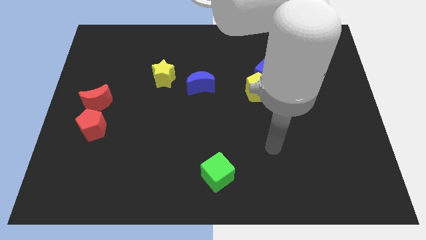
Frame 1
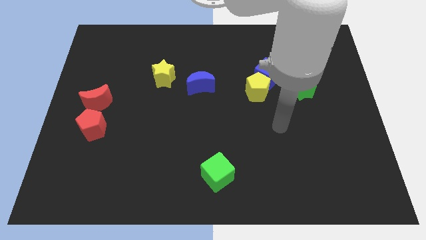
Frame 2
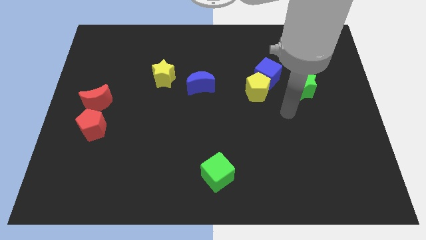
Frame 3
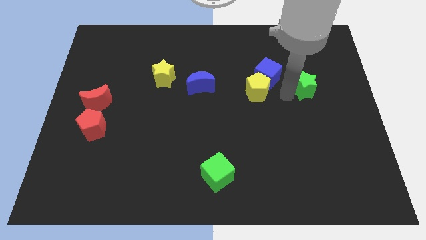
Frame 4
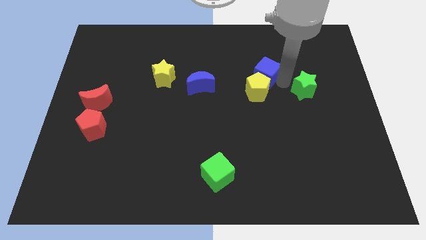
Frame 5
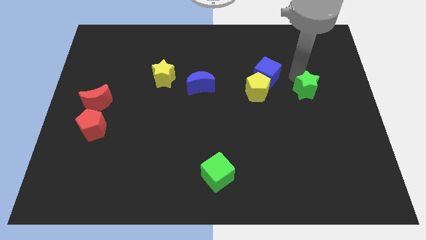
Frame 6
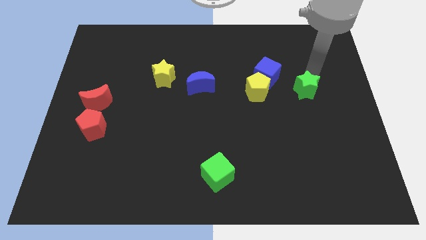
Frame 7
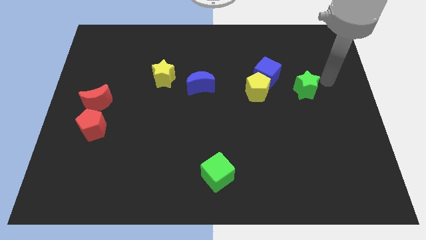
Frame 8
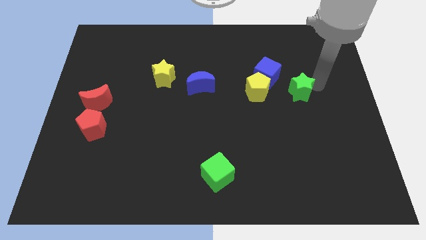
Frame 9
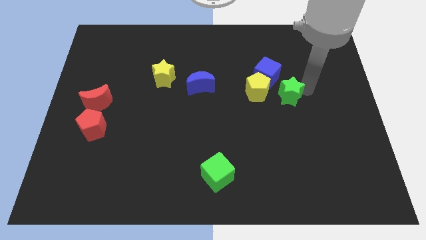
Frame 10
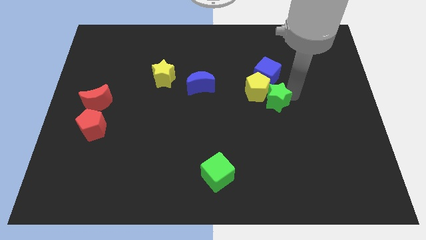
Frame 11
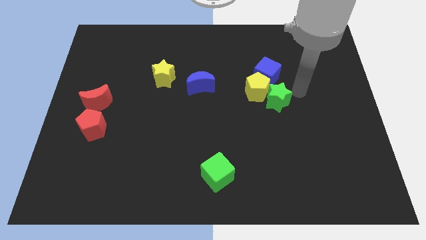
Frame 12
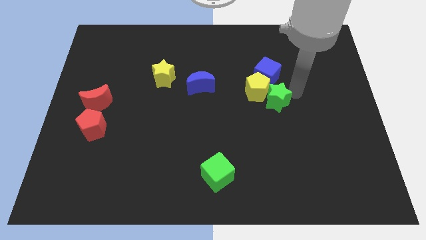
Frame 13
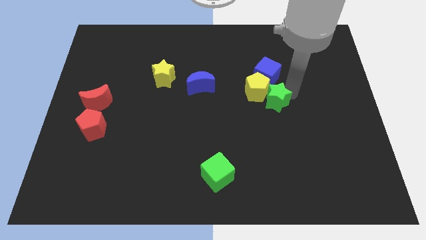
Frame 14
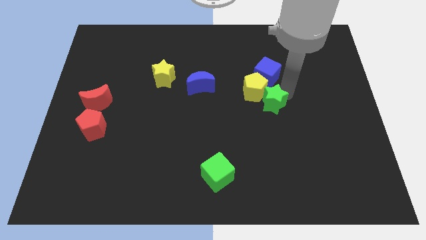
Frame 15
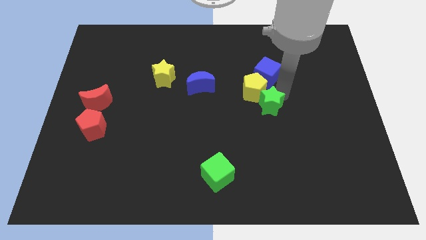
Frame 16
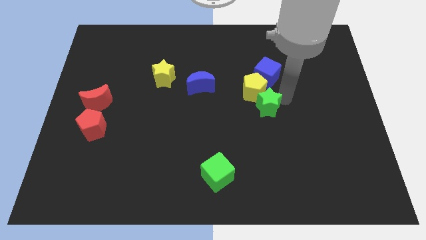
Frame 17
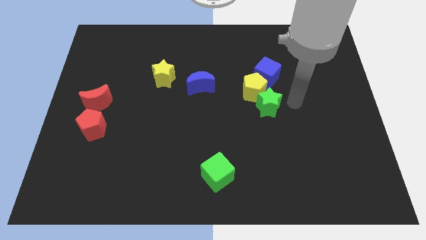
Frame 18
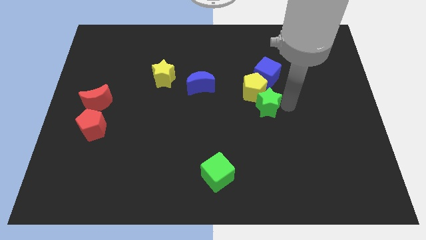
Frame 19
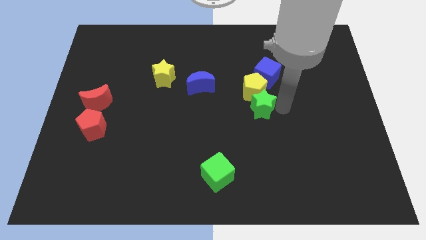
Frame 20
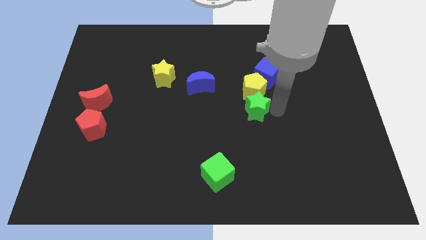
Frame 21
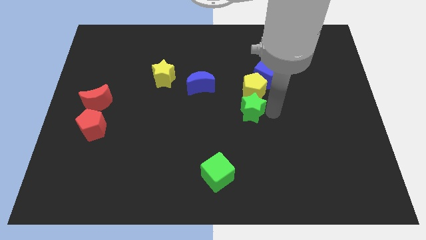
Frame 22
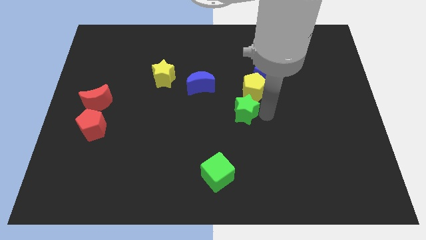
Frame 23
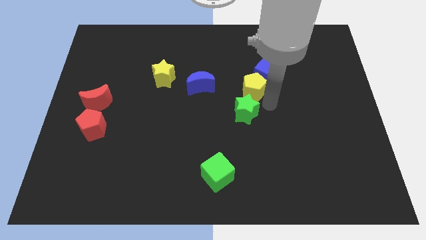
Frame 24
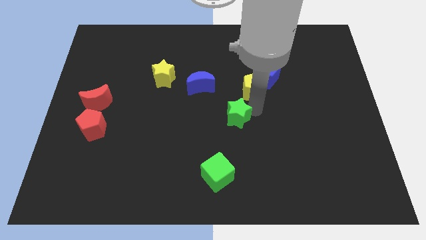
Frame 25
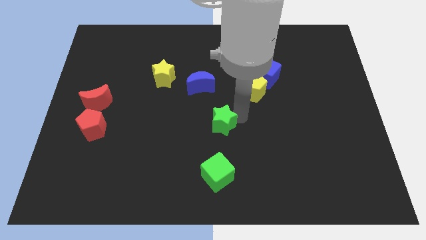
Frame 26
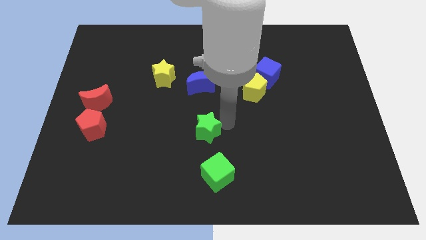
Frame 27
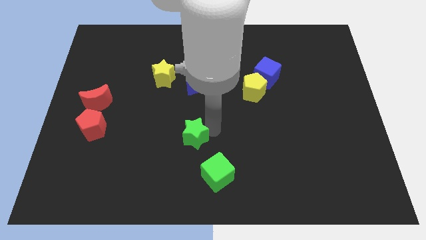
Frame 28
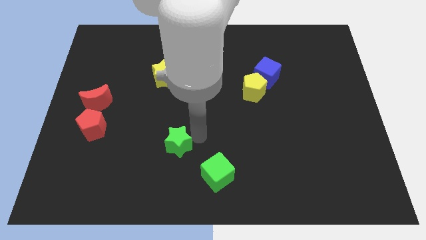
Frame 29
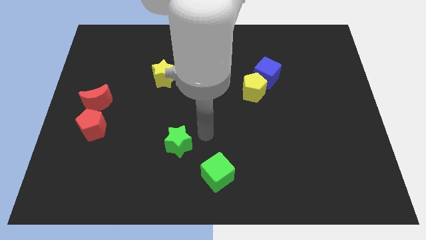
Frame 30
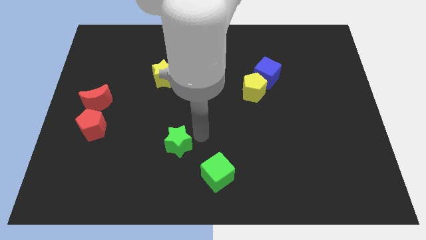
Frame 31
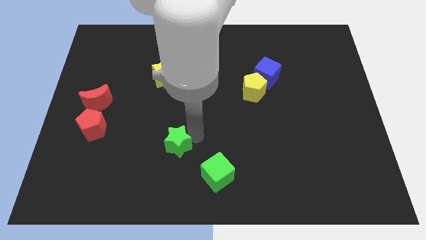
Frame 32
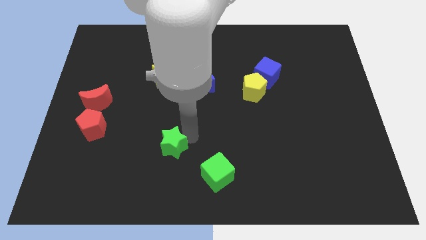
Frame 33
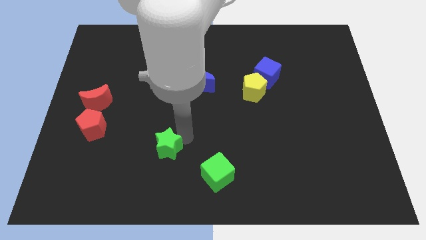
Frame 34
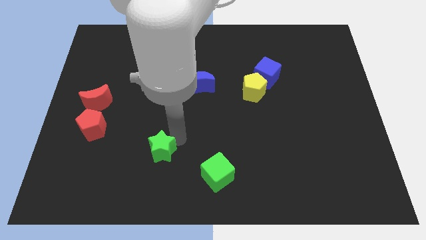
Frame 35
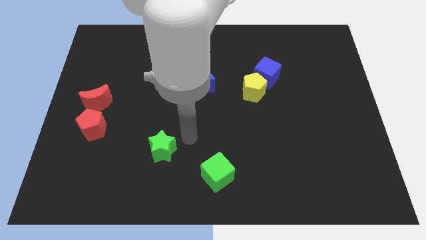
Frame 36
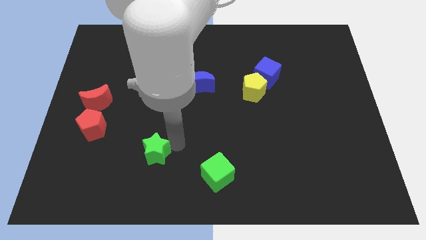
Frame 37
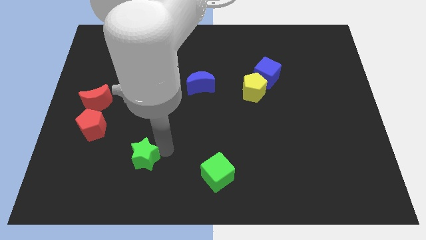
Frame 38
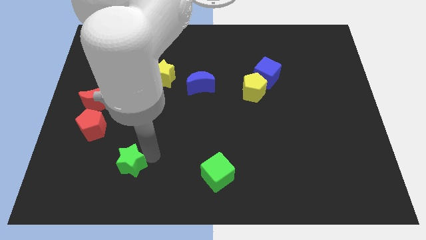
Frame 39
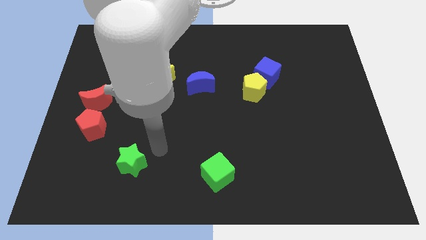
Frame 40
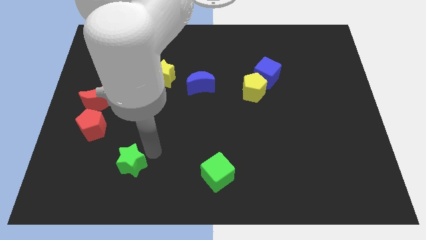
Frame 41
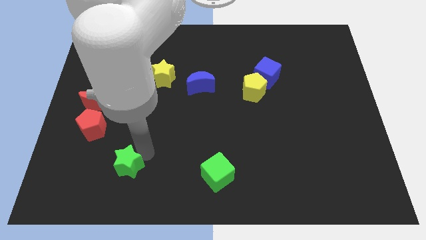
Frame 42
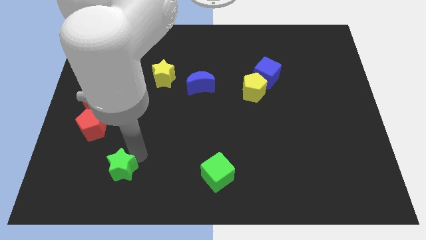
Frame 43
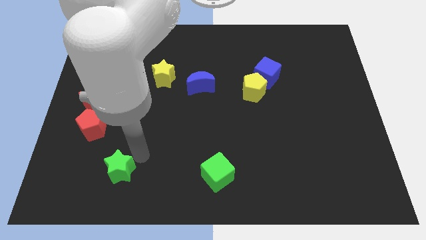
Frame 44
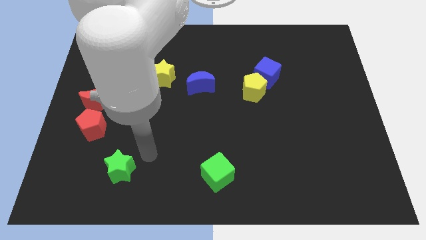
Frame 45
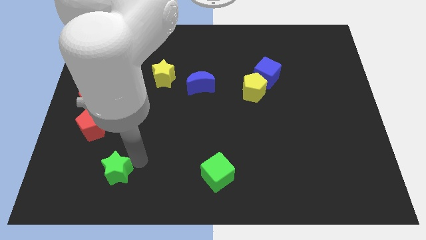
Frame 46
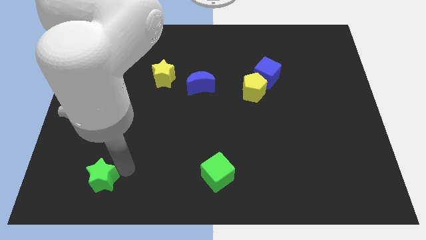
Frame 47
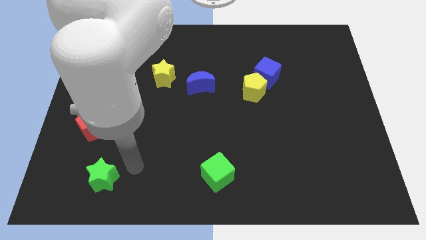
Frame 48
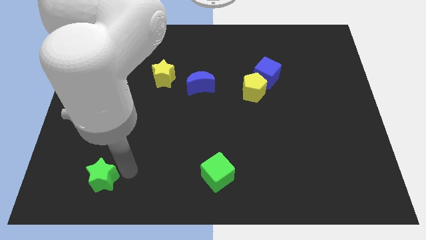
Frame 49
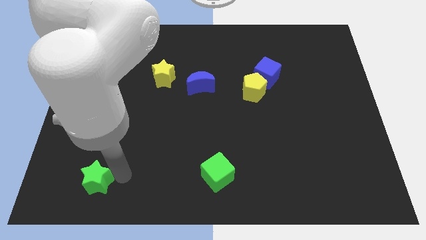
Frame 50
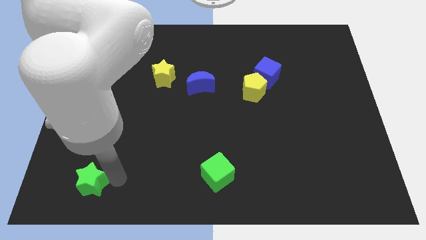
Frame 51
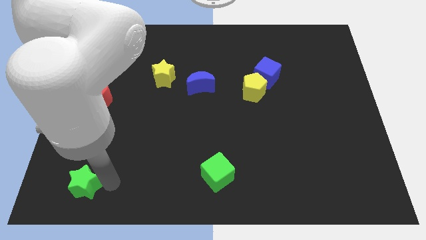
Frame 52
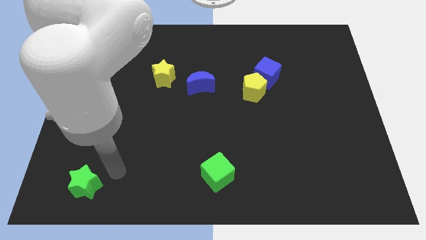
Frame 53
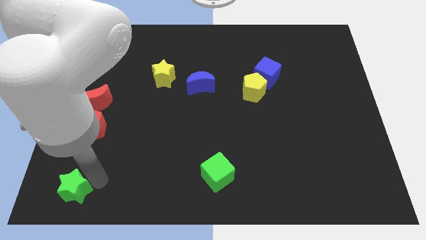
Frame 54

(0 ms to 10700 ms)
push the green star to the bottom left

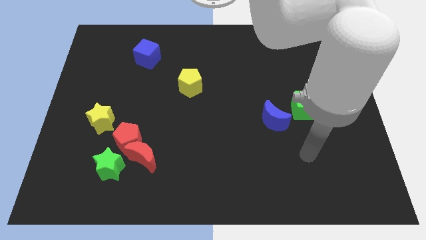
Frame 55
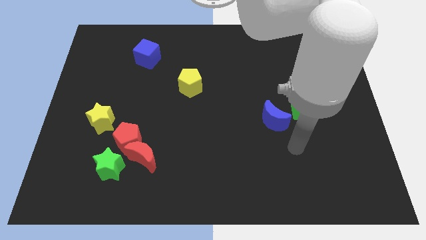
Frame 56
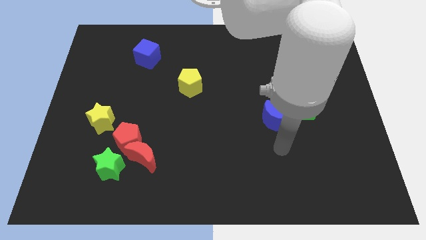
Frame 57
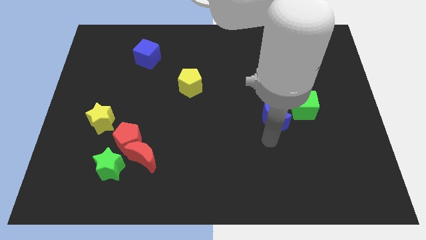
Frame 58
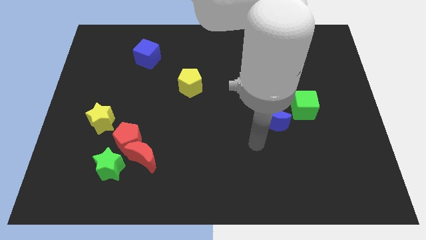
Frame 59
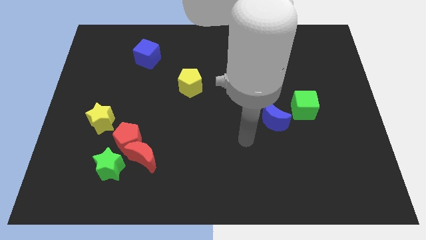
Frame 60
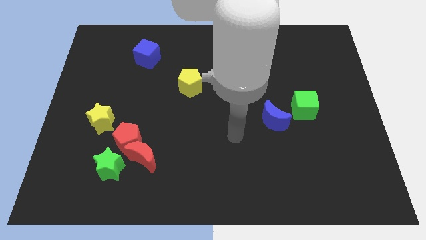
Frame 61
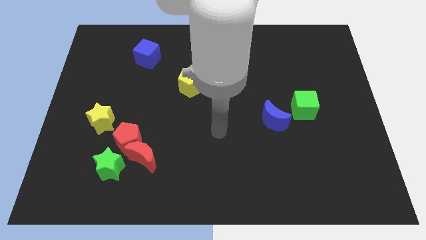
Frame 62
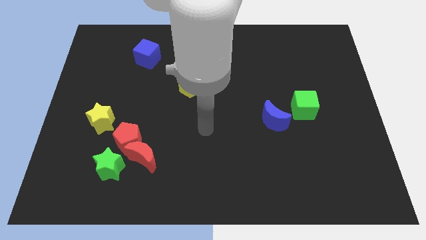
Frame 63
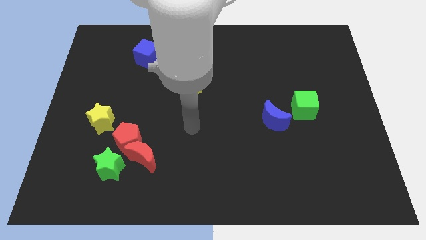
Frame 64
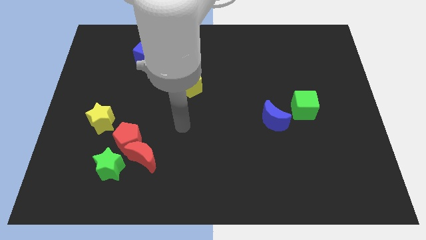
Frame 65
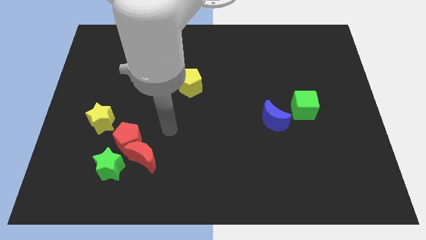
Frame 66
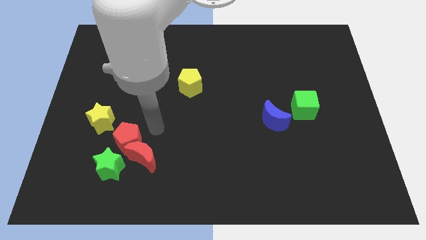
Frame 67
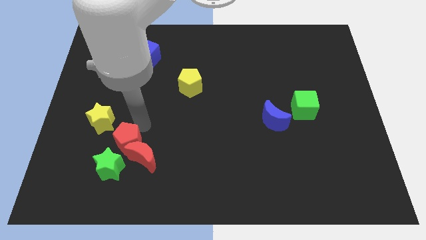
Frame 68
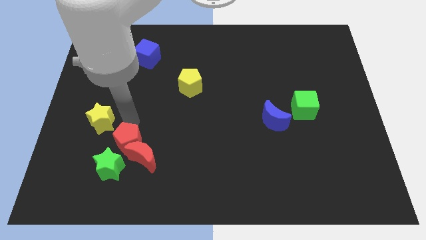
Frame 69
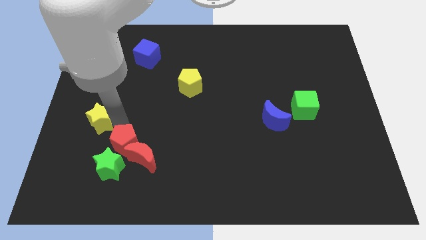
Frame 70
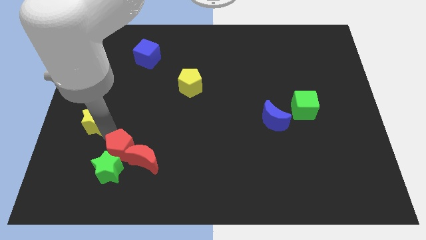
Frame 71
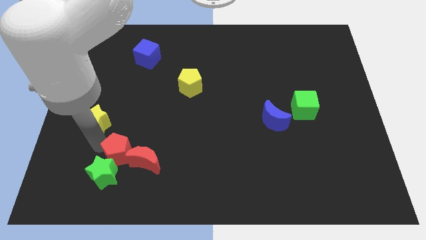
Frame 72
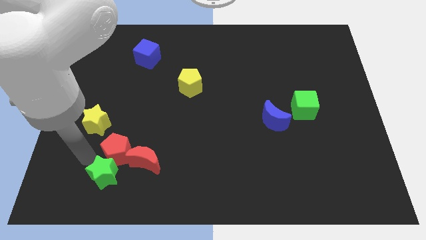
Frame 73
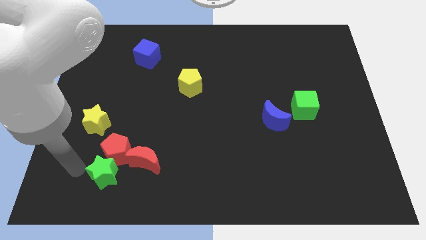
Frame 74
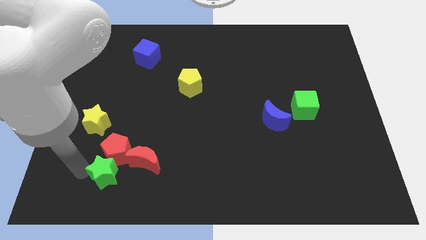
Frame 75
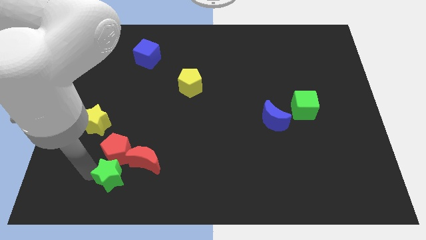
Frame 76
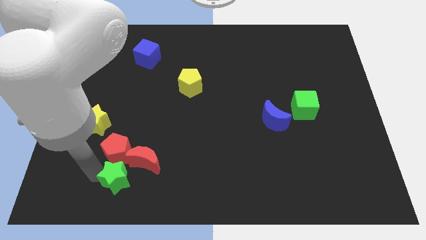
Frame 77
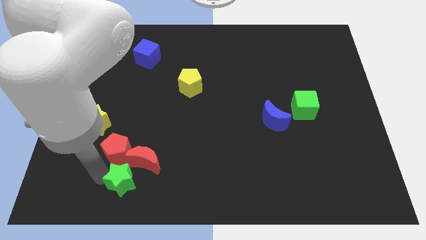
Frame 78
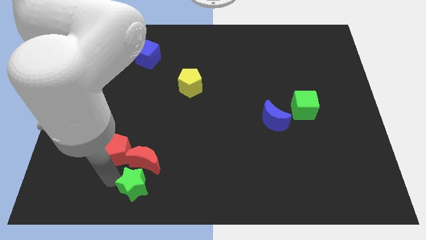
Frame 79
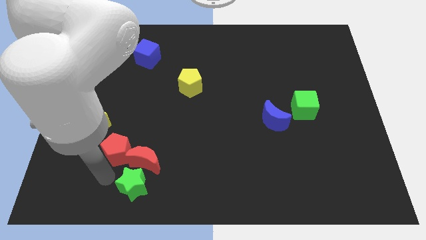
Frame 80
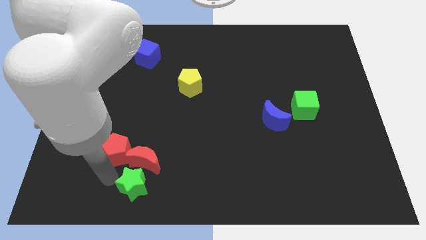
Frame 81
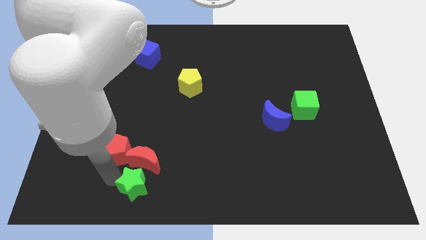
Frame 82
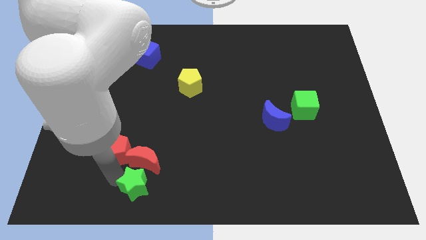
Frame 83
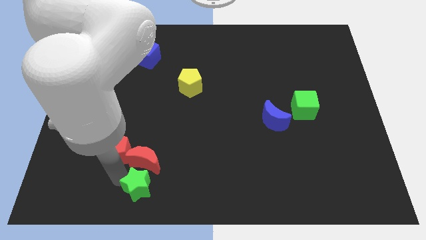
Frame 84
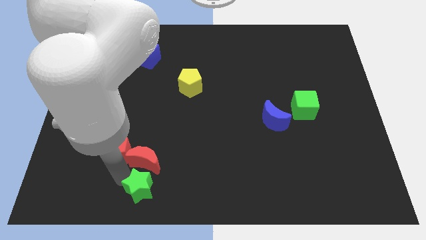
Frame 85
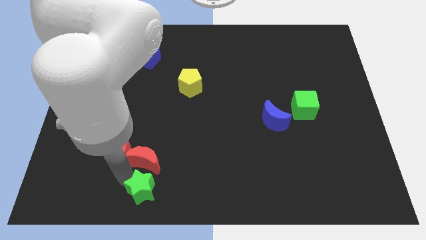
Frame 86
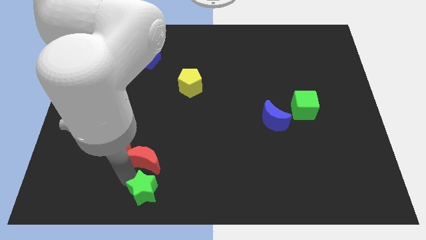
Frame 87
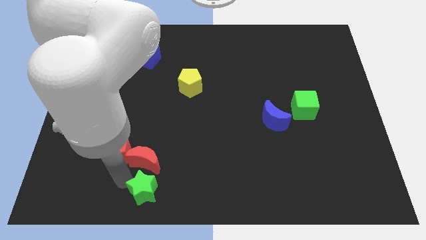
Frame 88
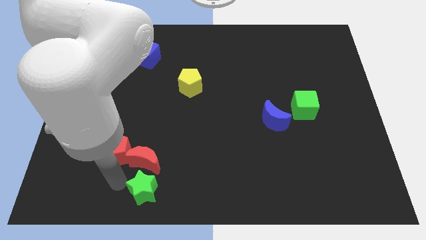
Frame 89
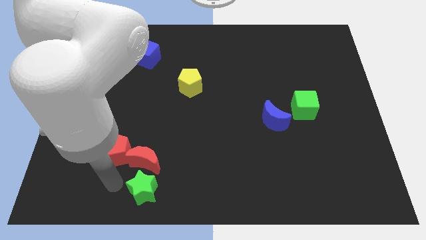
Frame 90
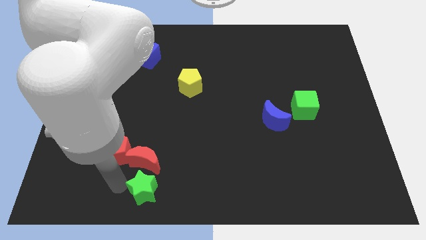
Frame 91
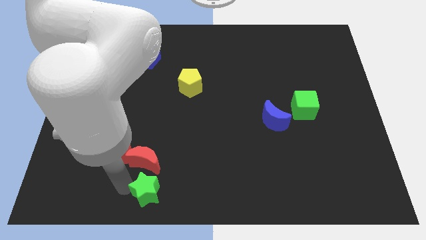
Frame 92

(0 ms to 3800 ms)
move the green star to the bottom
